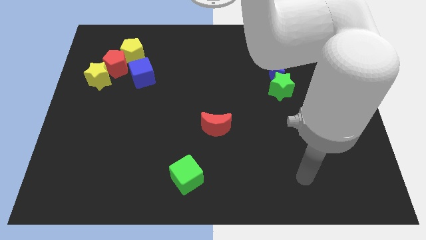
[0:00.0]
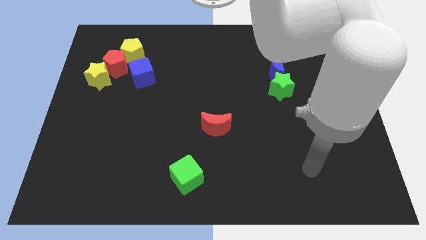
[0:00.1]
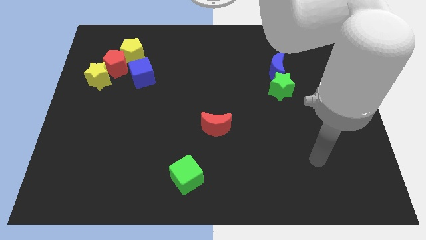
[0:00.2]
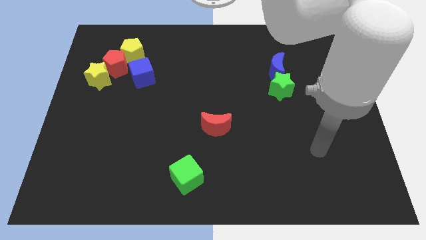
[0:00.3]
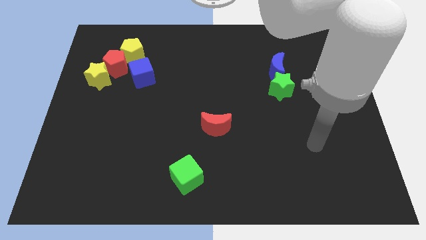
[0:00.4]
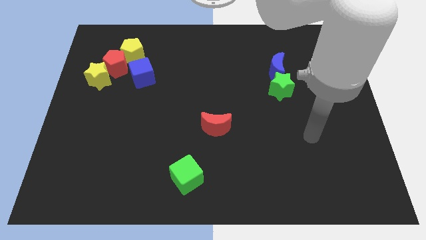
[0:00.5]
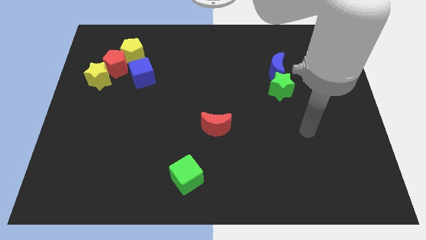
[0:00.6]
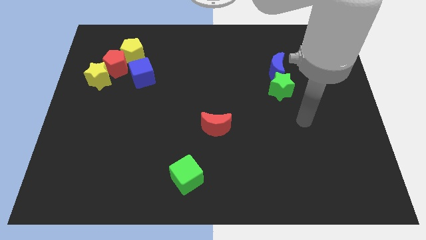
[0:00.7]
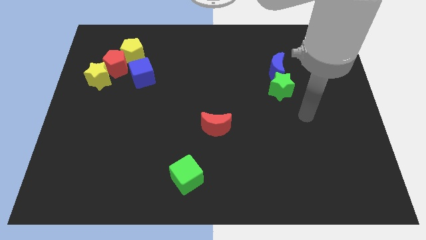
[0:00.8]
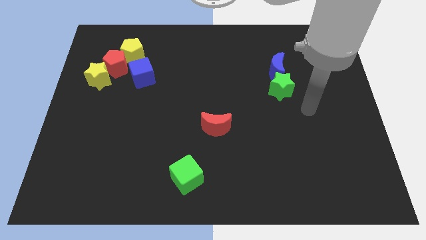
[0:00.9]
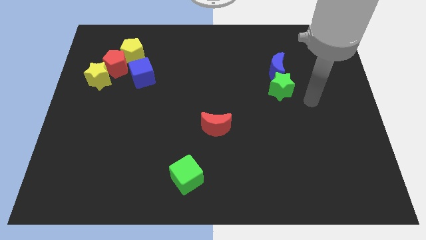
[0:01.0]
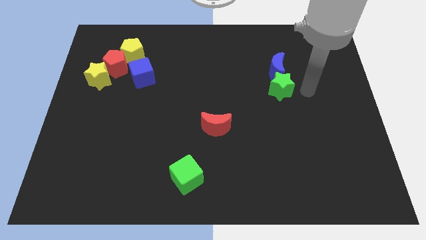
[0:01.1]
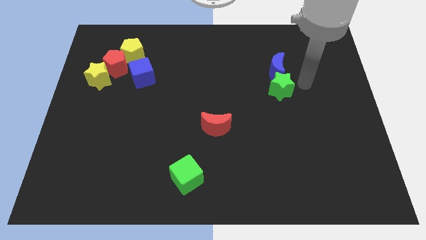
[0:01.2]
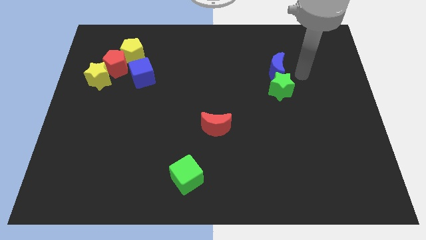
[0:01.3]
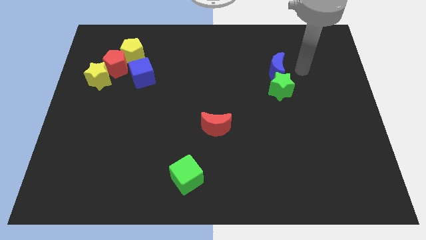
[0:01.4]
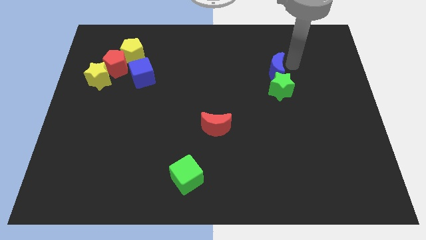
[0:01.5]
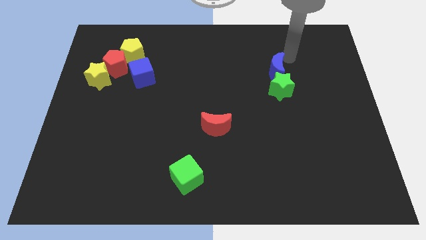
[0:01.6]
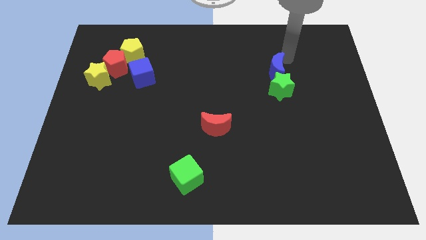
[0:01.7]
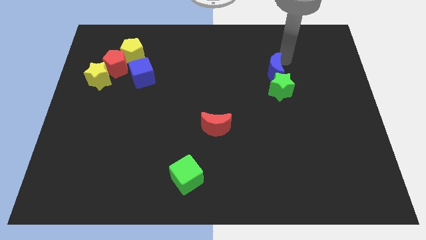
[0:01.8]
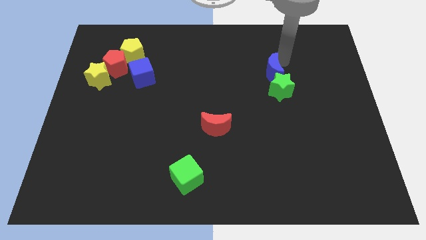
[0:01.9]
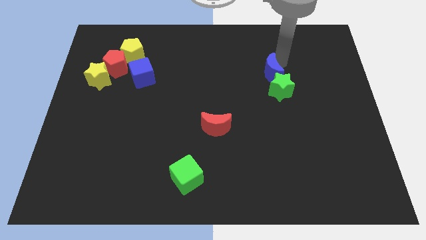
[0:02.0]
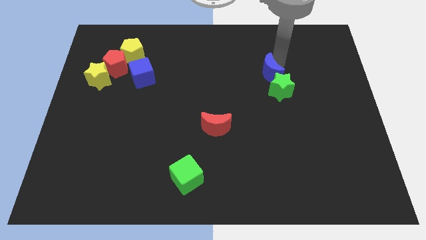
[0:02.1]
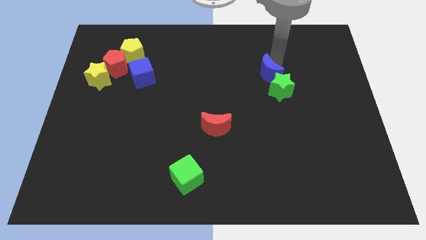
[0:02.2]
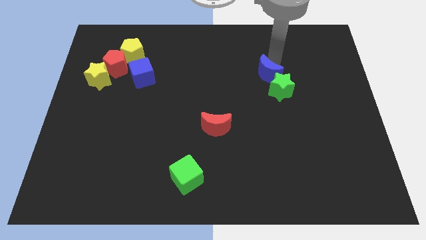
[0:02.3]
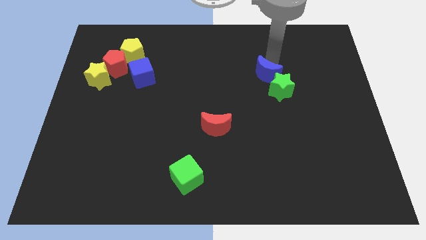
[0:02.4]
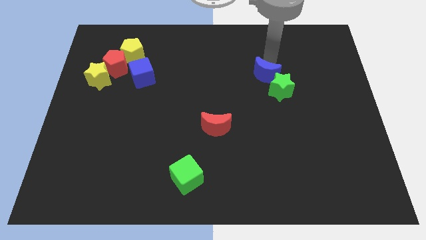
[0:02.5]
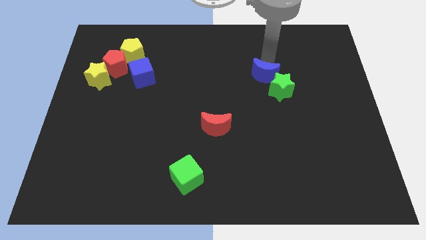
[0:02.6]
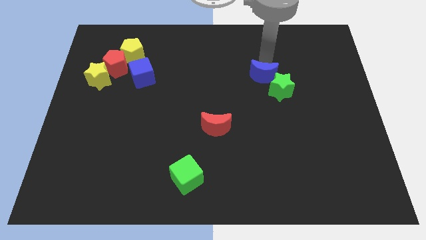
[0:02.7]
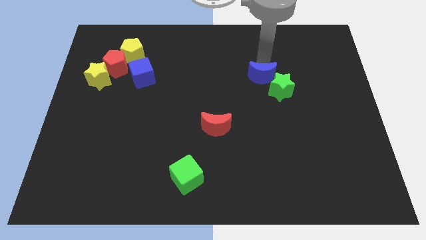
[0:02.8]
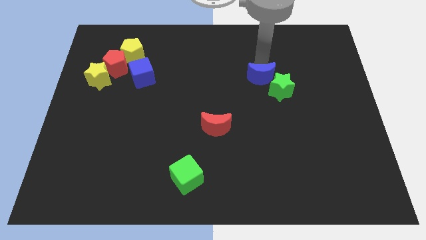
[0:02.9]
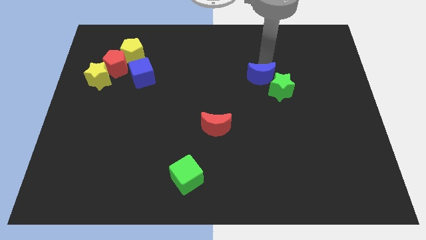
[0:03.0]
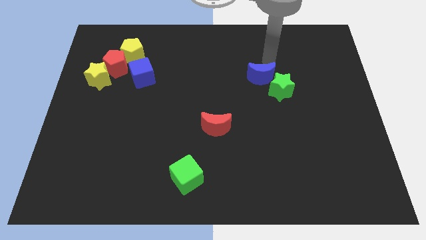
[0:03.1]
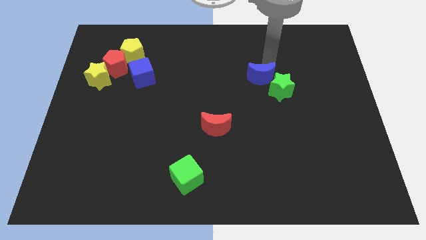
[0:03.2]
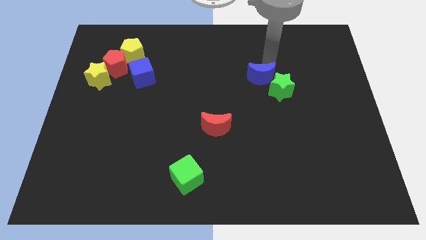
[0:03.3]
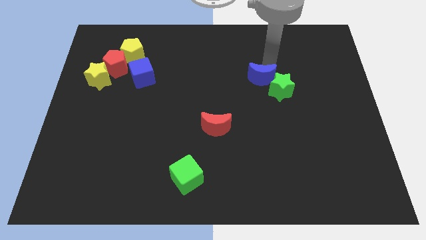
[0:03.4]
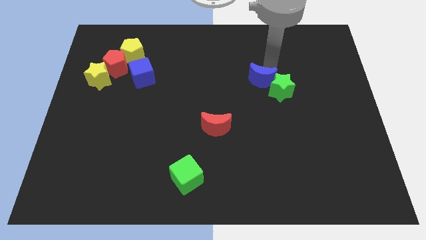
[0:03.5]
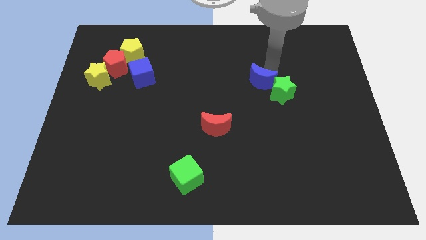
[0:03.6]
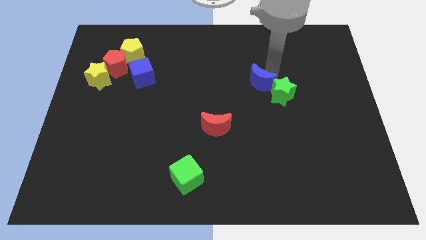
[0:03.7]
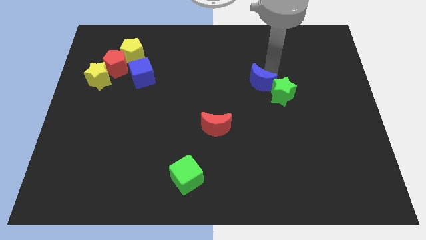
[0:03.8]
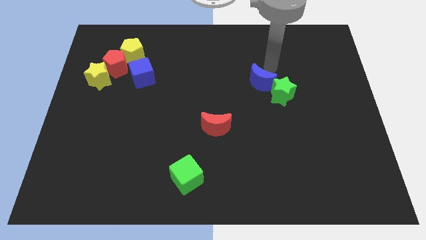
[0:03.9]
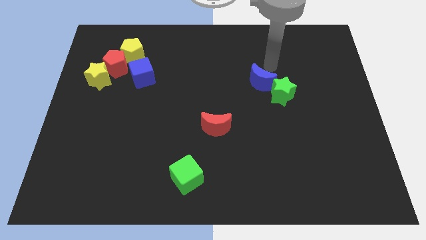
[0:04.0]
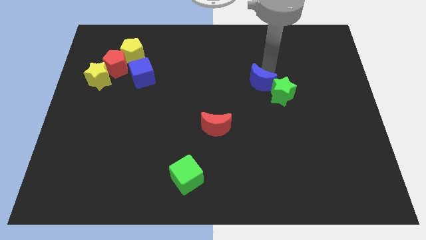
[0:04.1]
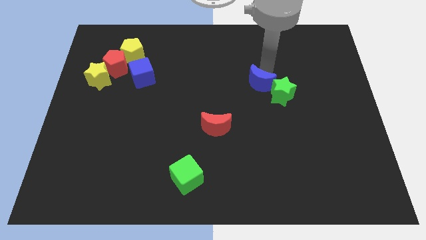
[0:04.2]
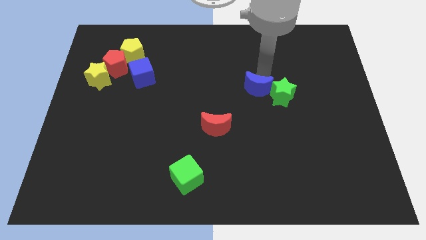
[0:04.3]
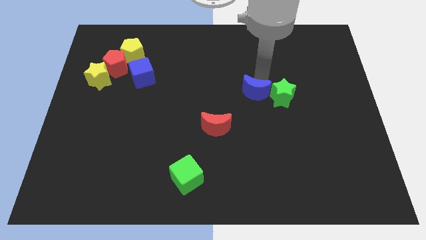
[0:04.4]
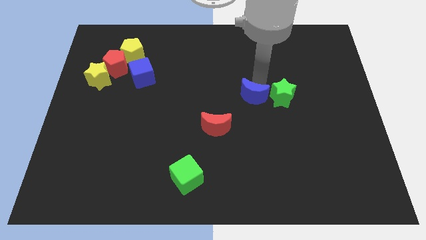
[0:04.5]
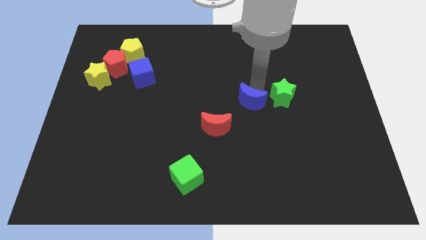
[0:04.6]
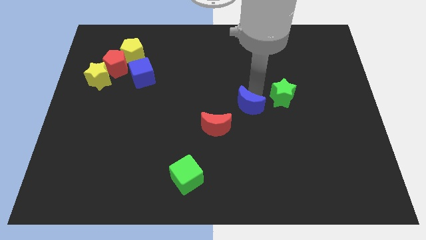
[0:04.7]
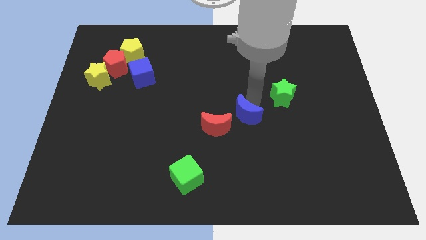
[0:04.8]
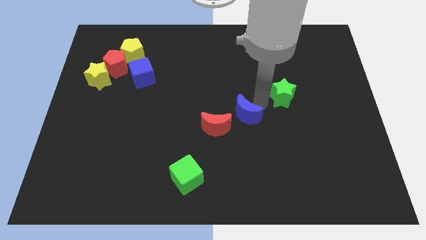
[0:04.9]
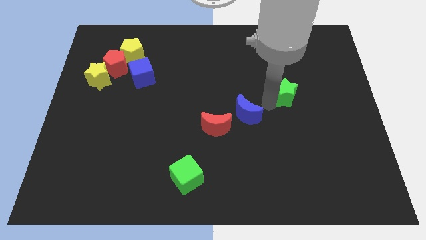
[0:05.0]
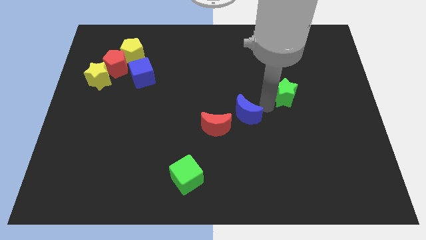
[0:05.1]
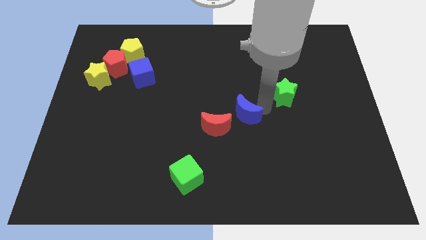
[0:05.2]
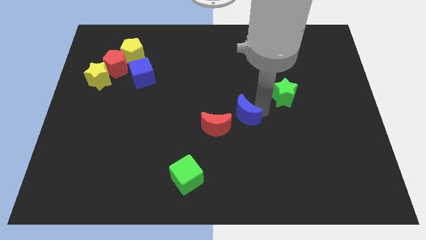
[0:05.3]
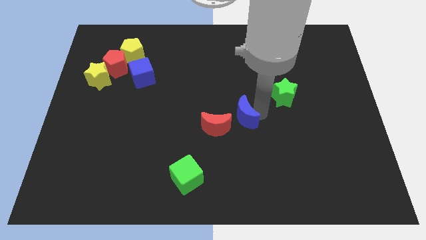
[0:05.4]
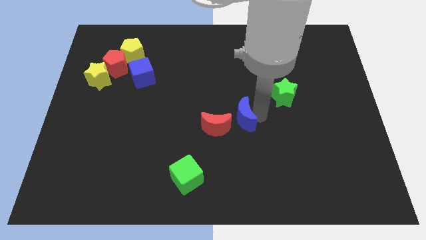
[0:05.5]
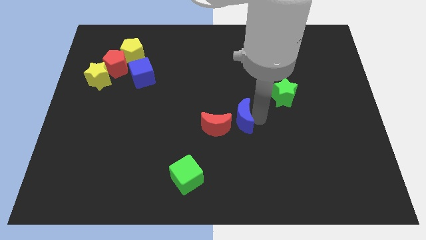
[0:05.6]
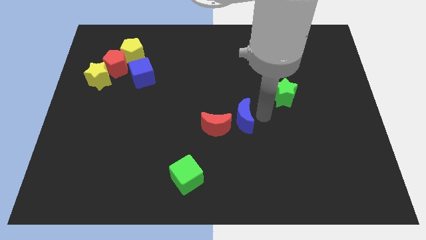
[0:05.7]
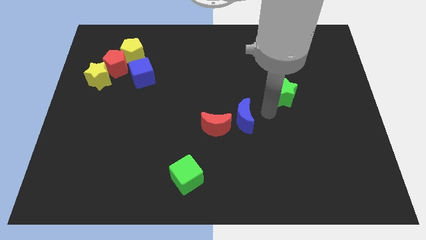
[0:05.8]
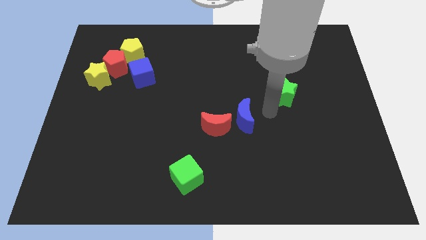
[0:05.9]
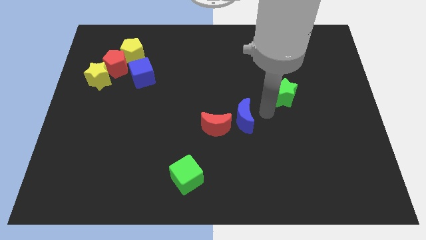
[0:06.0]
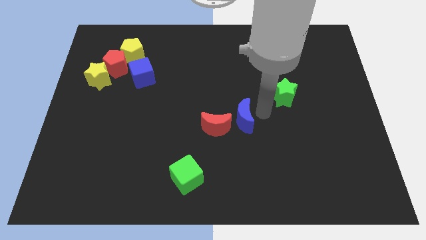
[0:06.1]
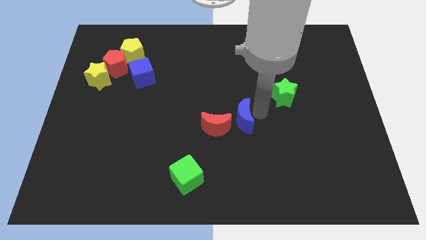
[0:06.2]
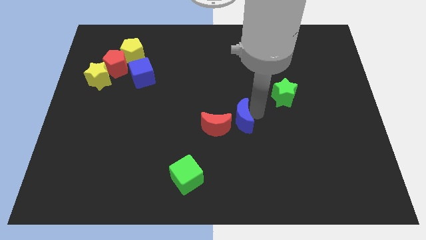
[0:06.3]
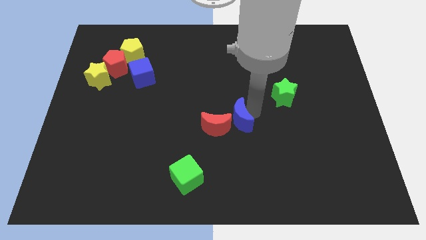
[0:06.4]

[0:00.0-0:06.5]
move the blue moon next to the red moon

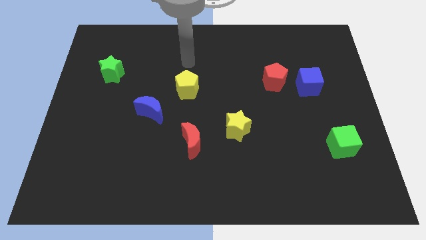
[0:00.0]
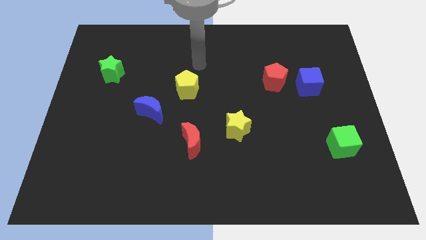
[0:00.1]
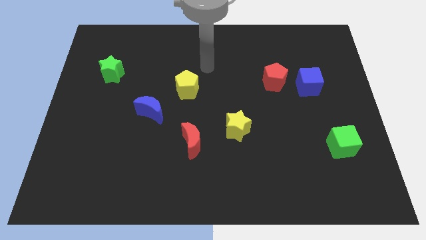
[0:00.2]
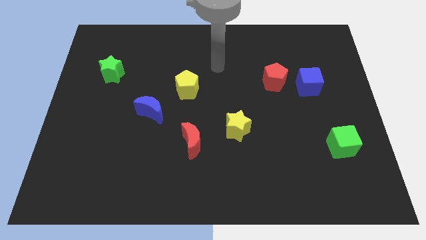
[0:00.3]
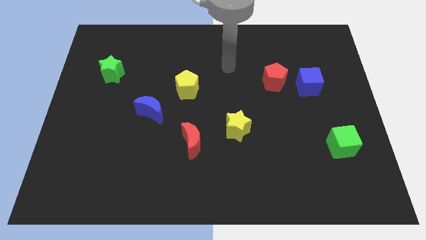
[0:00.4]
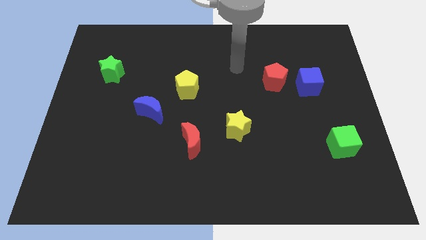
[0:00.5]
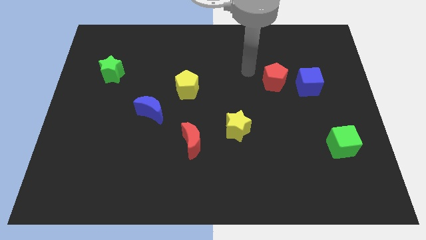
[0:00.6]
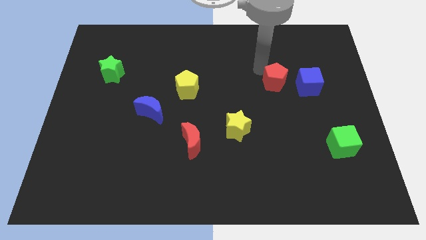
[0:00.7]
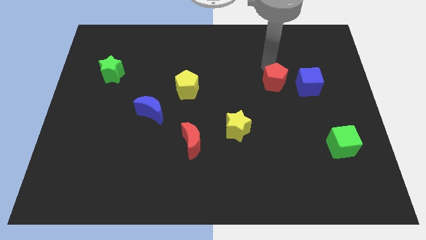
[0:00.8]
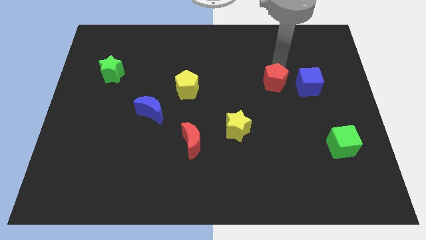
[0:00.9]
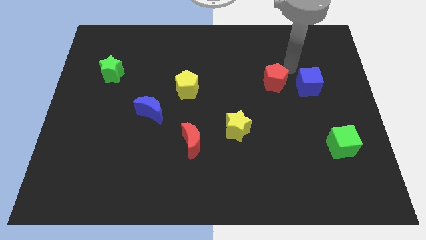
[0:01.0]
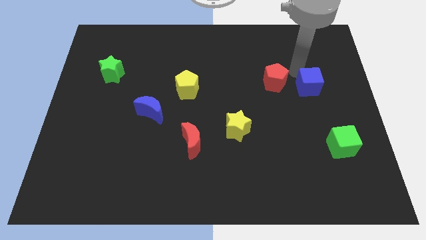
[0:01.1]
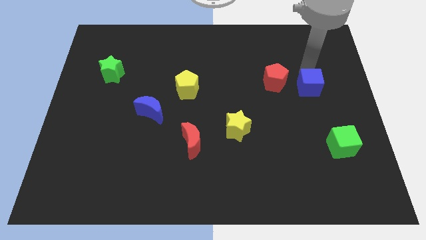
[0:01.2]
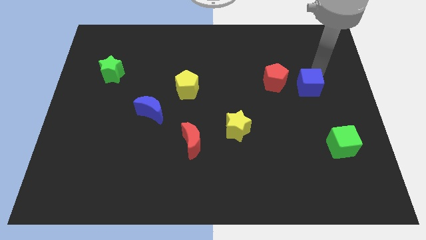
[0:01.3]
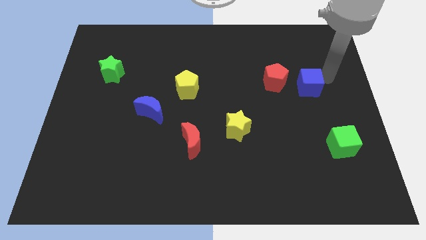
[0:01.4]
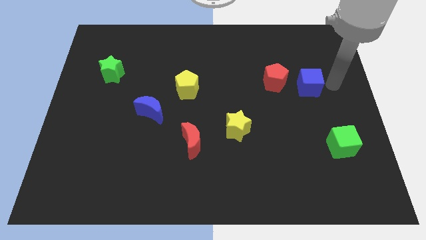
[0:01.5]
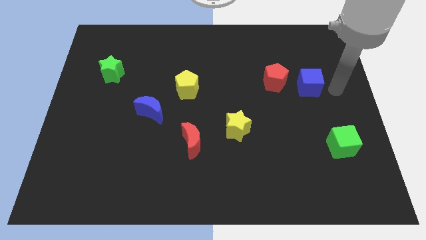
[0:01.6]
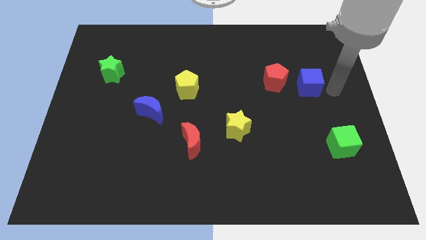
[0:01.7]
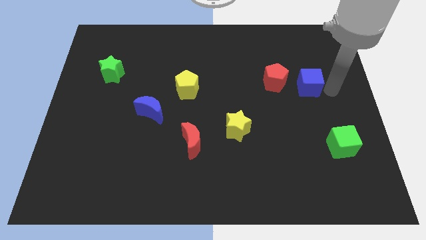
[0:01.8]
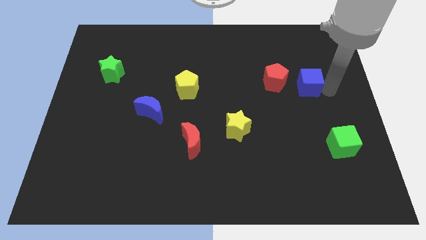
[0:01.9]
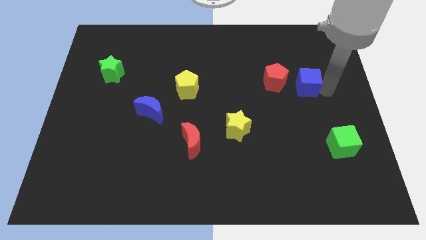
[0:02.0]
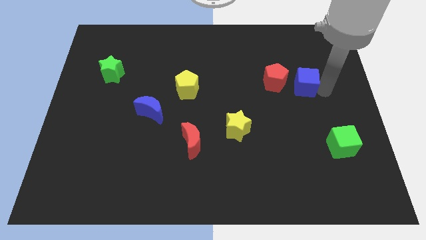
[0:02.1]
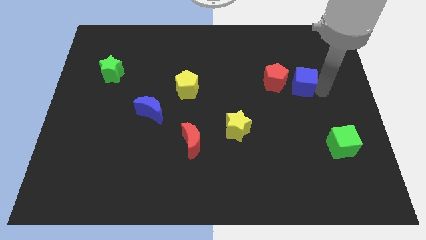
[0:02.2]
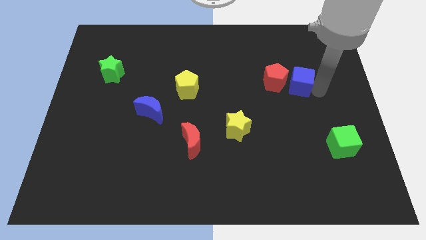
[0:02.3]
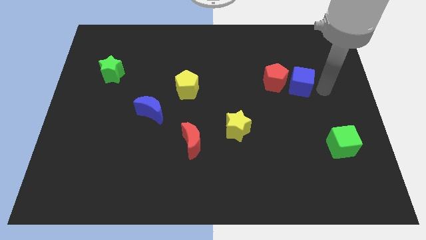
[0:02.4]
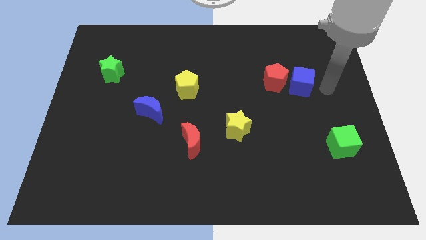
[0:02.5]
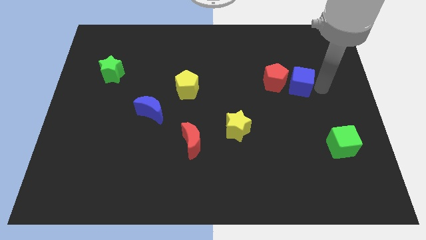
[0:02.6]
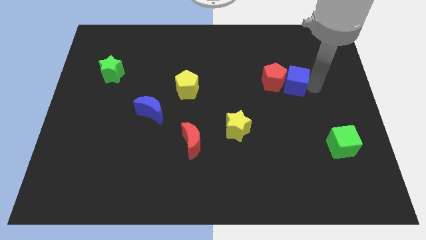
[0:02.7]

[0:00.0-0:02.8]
put the blue cube next to the red pentagon
